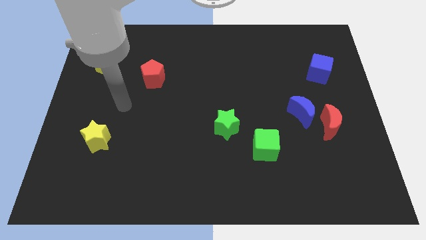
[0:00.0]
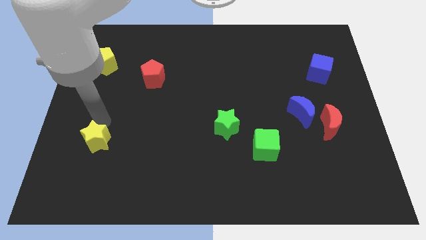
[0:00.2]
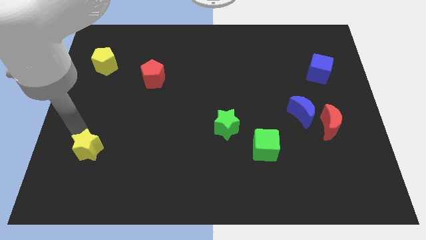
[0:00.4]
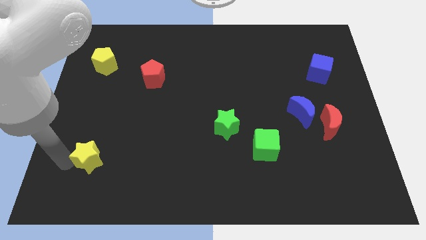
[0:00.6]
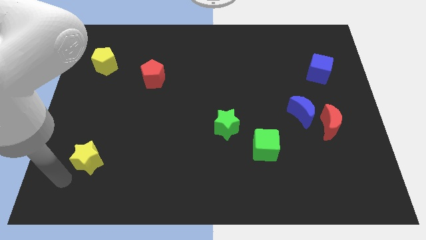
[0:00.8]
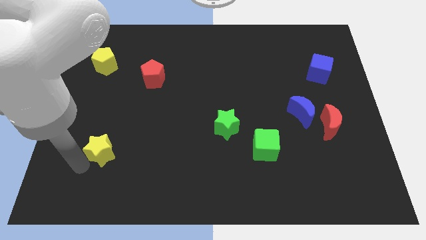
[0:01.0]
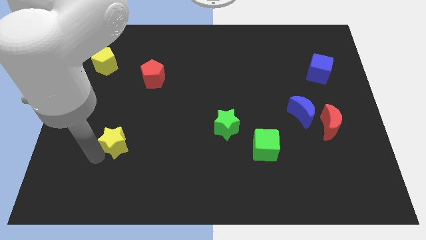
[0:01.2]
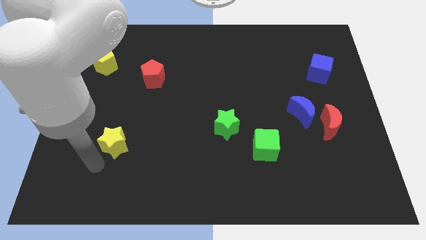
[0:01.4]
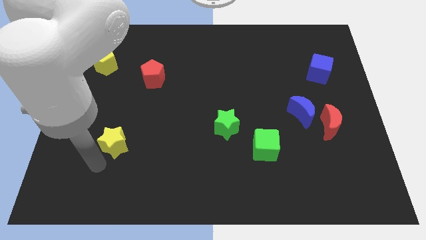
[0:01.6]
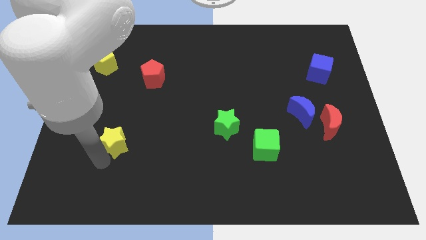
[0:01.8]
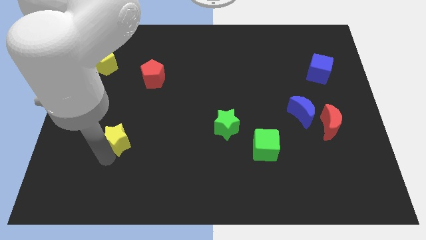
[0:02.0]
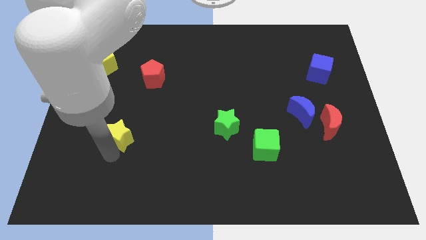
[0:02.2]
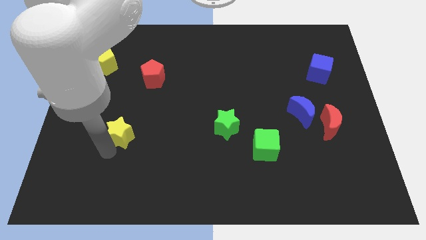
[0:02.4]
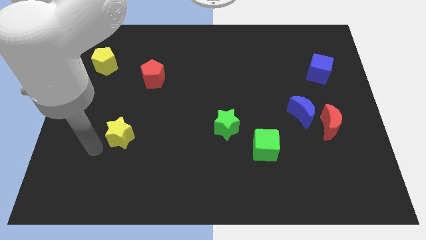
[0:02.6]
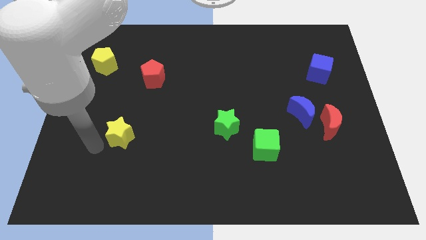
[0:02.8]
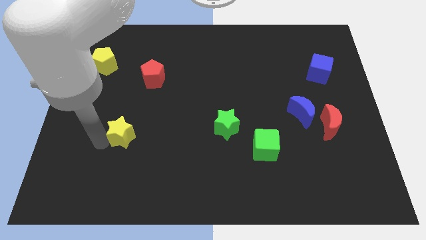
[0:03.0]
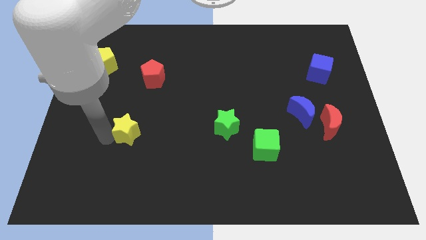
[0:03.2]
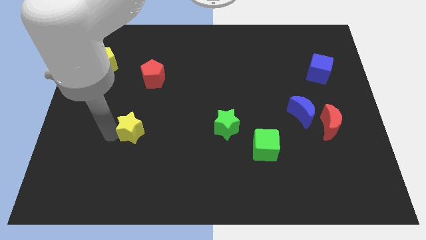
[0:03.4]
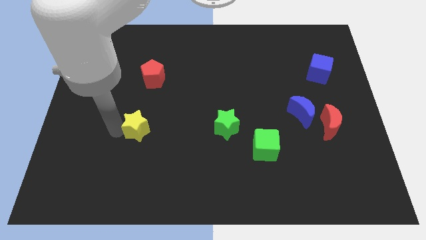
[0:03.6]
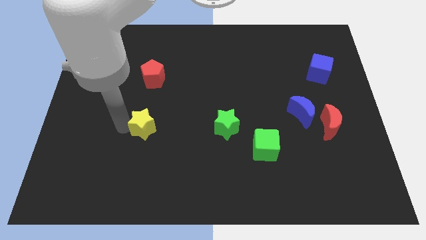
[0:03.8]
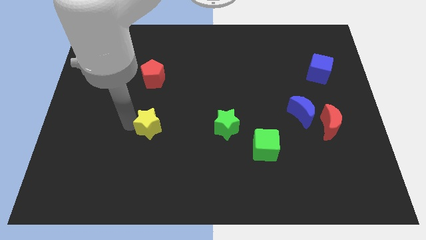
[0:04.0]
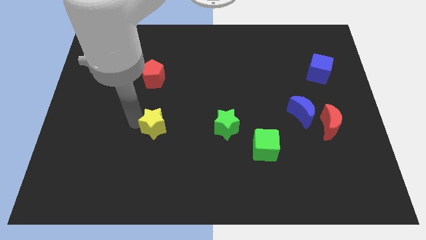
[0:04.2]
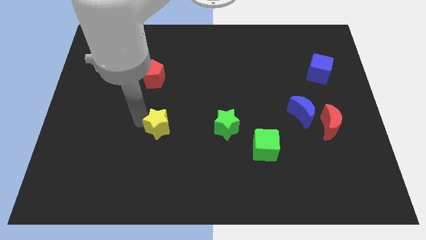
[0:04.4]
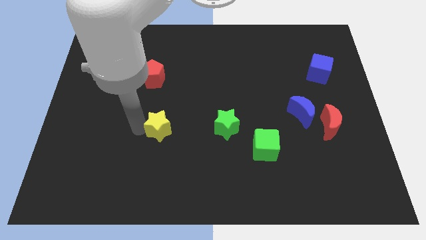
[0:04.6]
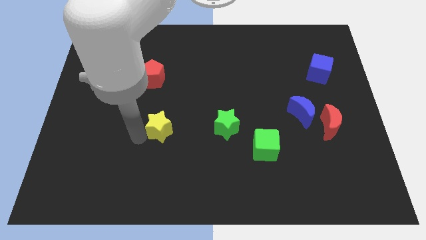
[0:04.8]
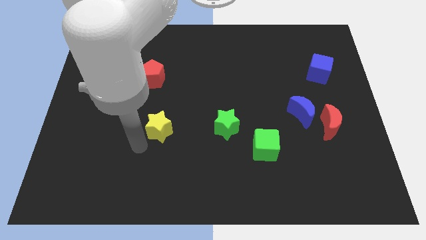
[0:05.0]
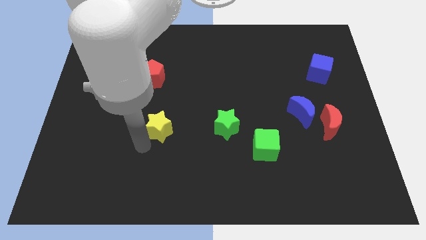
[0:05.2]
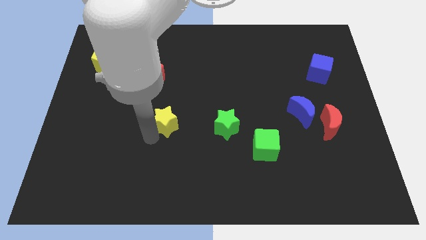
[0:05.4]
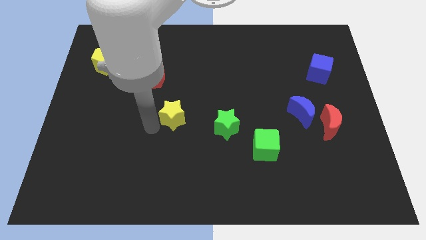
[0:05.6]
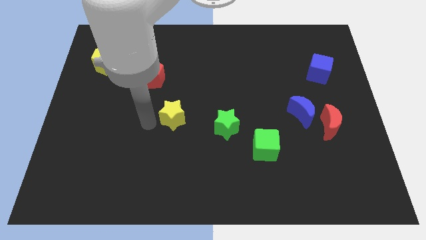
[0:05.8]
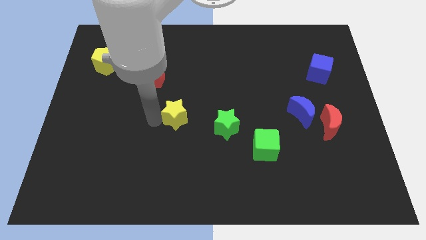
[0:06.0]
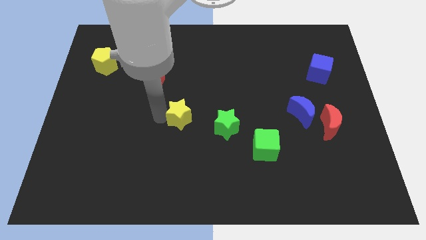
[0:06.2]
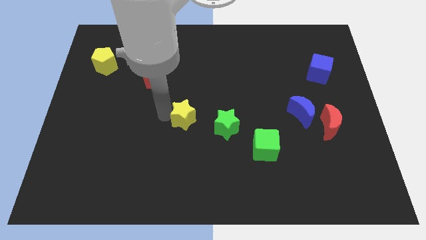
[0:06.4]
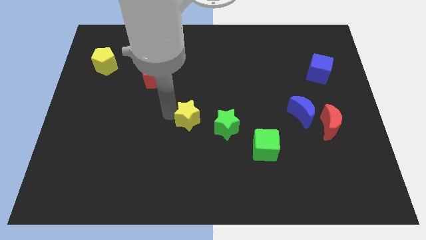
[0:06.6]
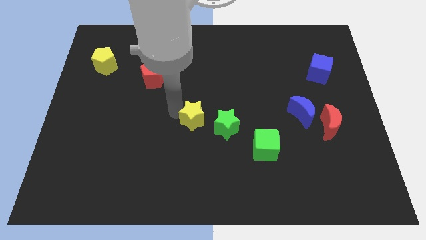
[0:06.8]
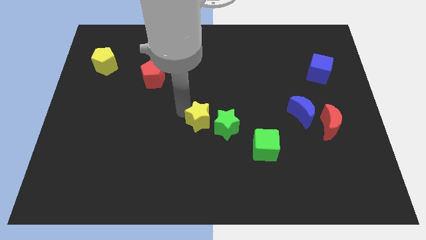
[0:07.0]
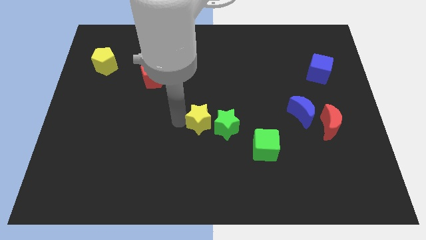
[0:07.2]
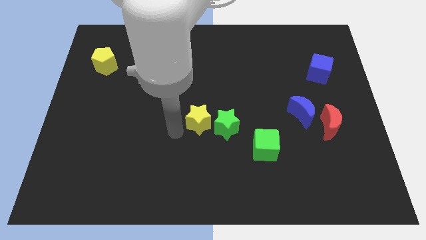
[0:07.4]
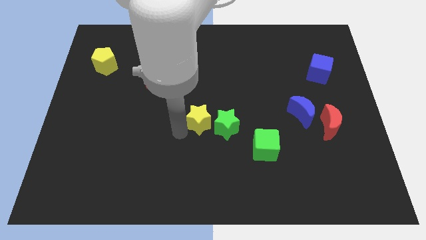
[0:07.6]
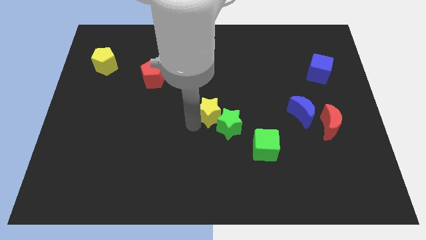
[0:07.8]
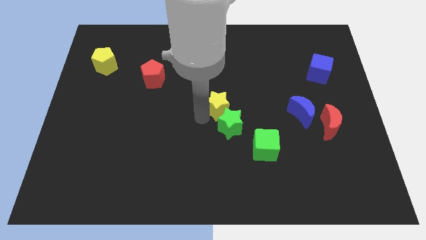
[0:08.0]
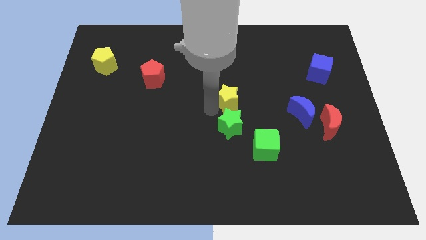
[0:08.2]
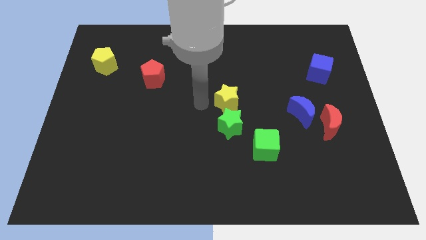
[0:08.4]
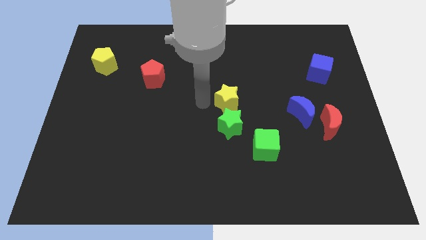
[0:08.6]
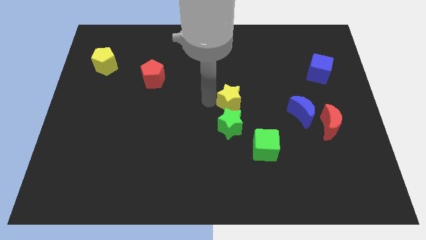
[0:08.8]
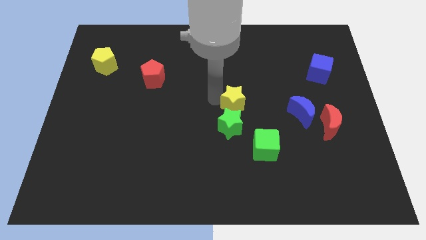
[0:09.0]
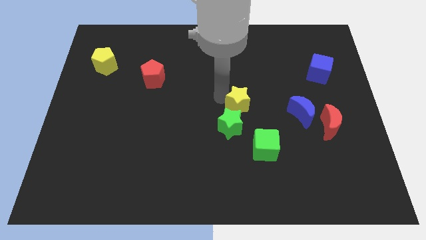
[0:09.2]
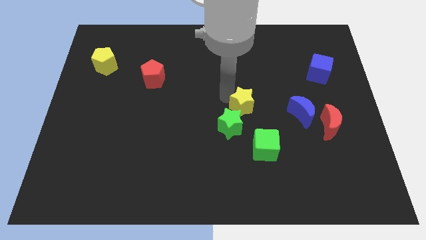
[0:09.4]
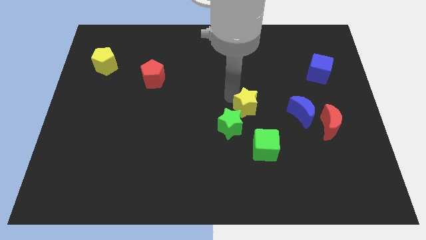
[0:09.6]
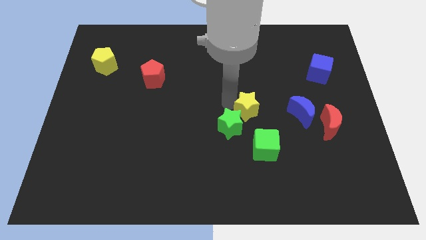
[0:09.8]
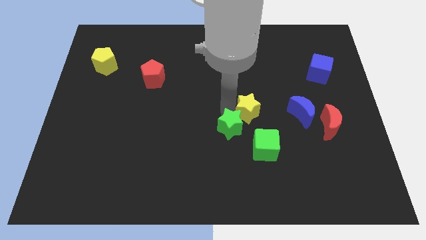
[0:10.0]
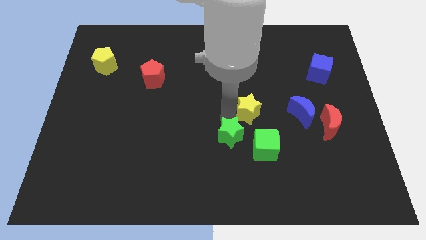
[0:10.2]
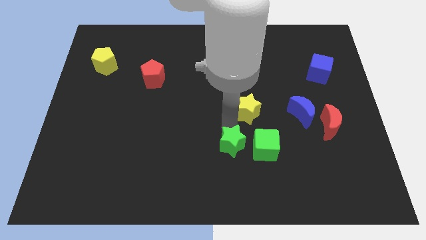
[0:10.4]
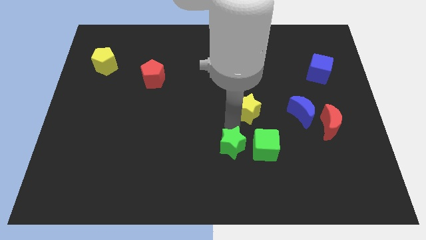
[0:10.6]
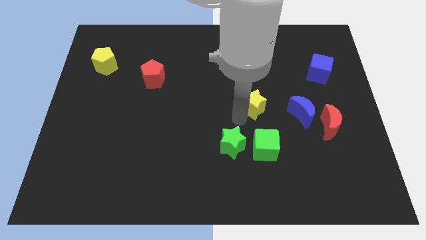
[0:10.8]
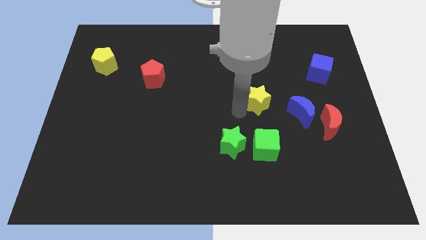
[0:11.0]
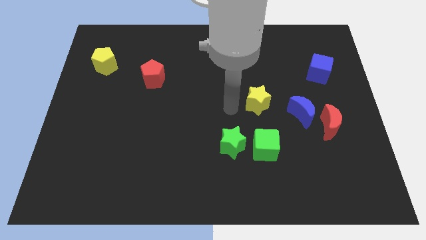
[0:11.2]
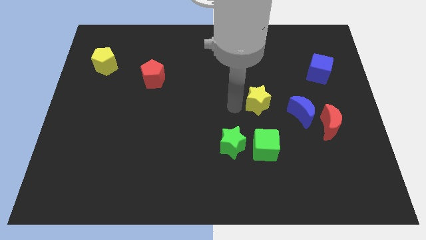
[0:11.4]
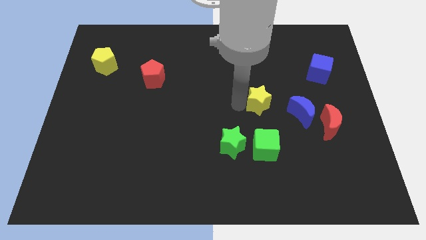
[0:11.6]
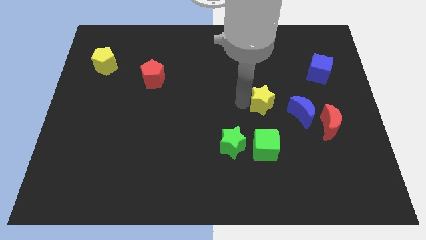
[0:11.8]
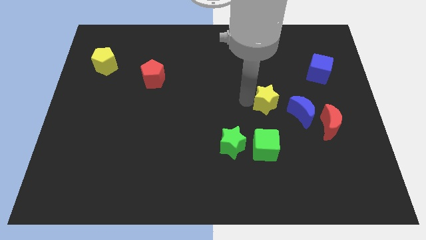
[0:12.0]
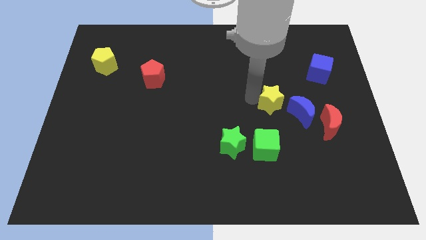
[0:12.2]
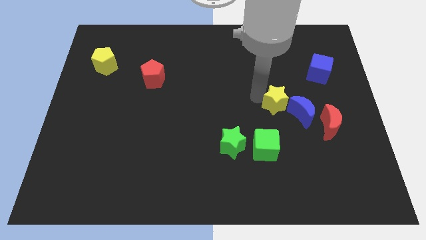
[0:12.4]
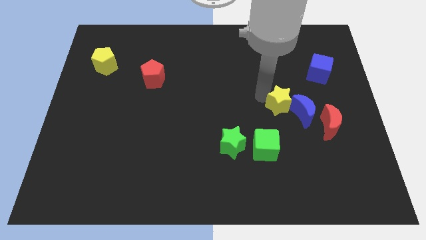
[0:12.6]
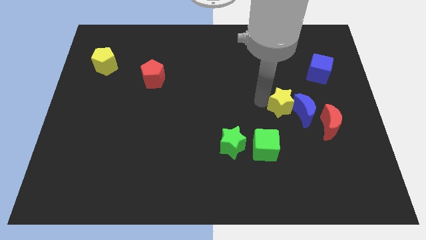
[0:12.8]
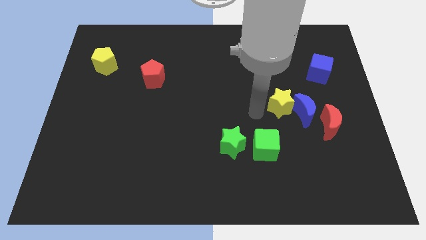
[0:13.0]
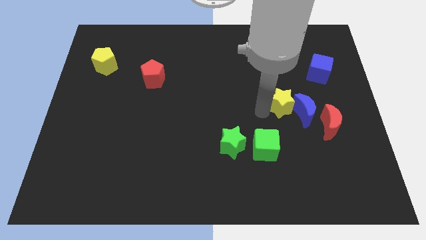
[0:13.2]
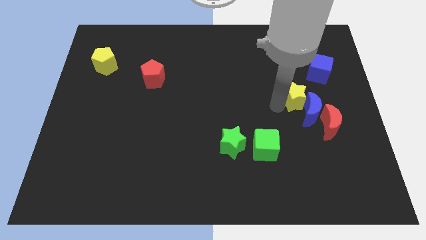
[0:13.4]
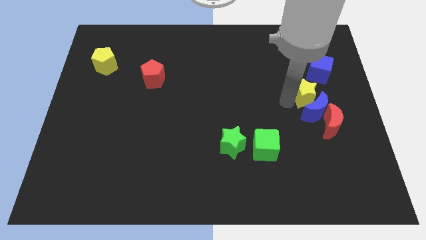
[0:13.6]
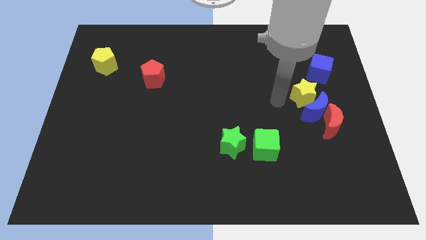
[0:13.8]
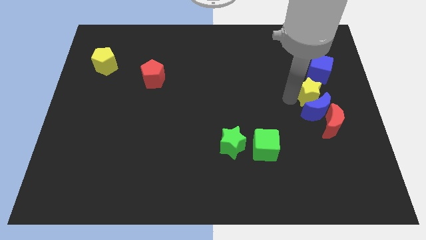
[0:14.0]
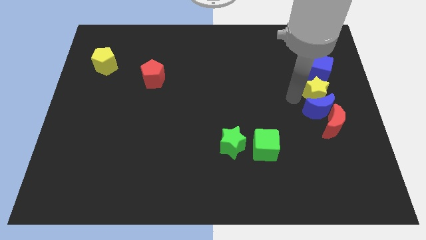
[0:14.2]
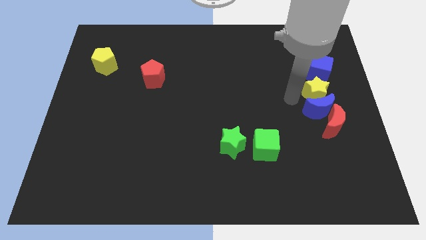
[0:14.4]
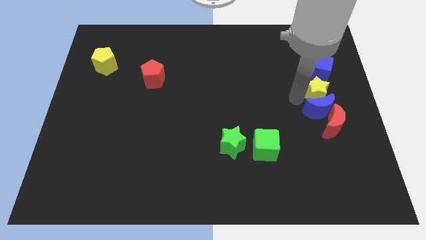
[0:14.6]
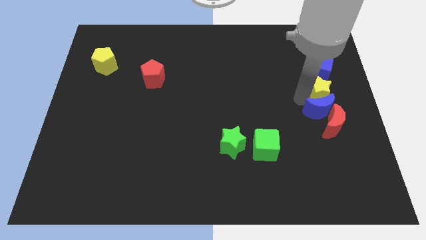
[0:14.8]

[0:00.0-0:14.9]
push the yellow star to the right side of the board
